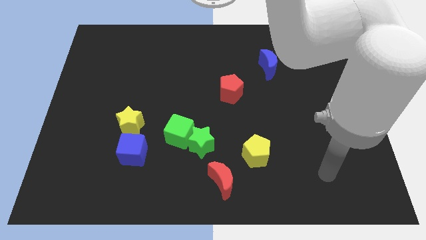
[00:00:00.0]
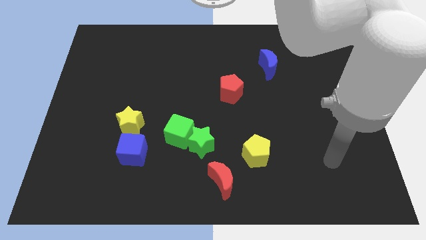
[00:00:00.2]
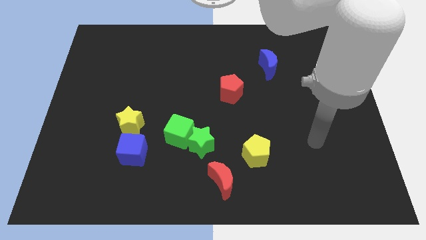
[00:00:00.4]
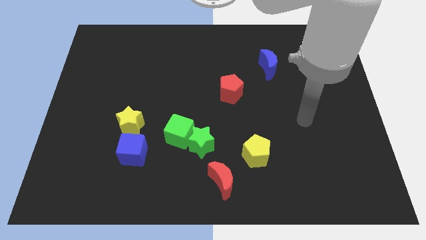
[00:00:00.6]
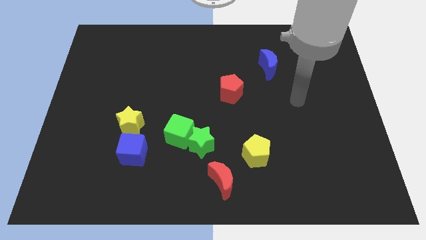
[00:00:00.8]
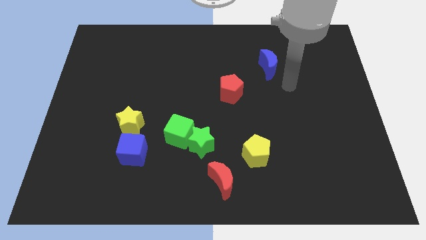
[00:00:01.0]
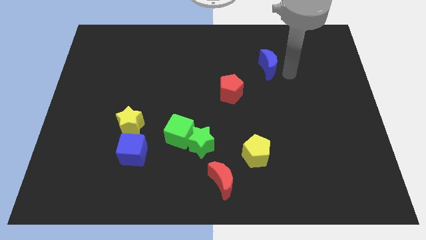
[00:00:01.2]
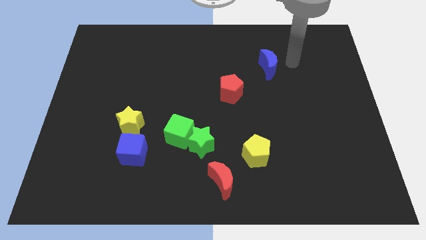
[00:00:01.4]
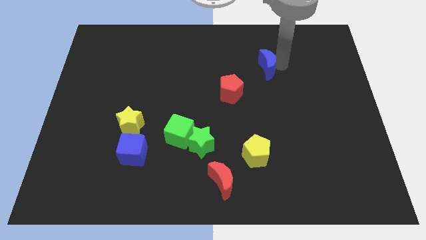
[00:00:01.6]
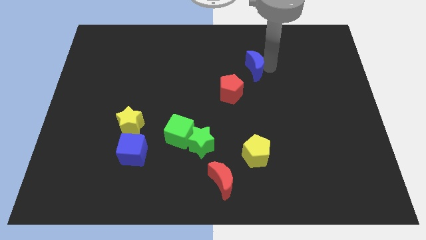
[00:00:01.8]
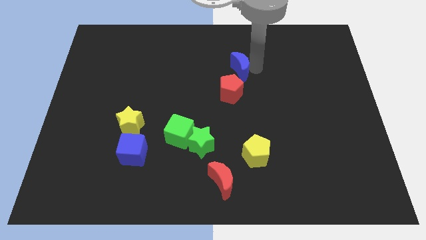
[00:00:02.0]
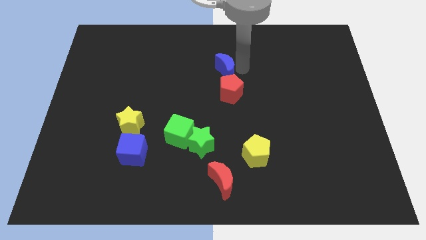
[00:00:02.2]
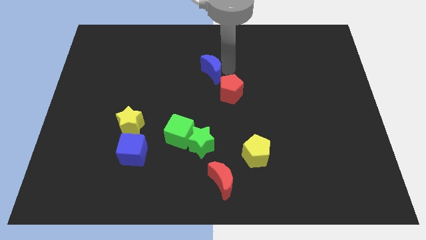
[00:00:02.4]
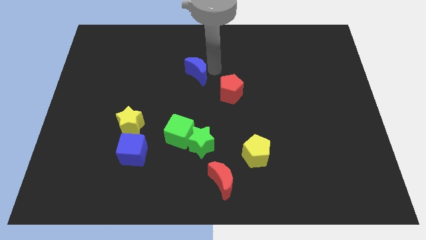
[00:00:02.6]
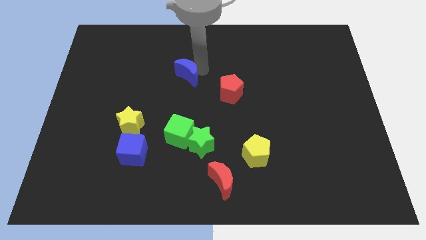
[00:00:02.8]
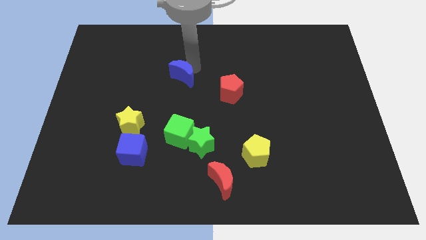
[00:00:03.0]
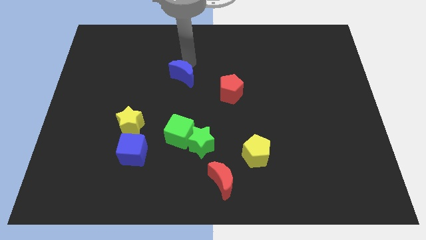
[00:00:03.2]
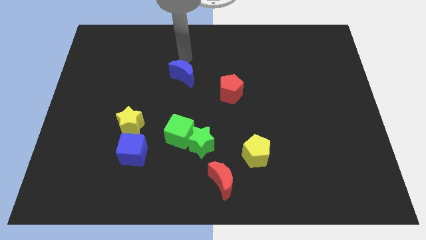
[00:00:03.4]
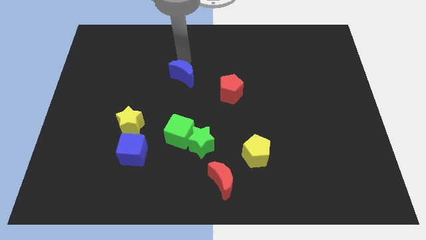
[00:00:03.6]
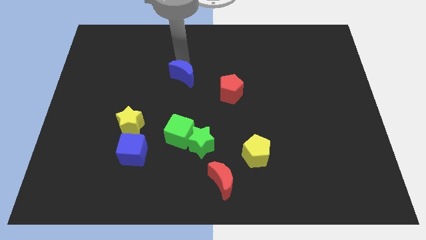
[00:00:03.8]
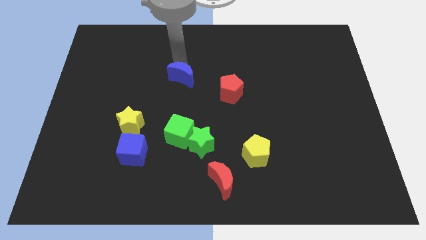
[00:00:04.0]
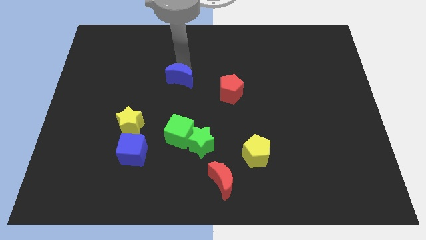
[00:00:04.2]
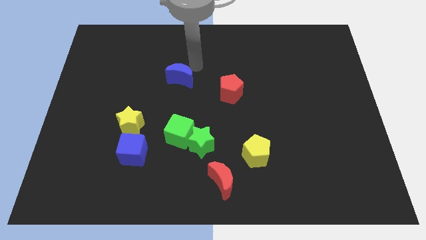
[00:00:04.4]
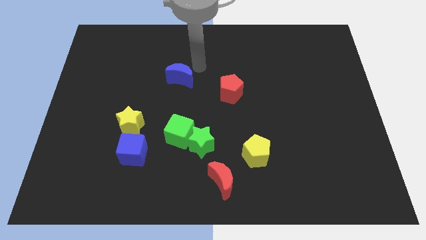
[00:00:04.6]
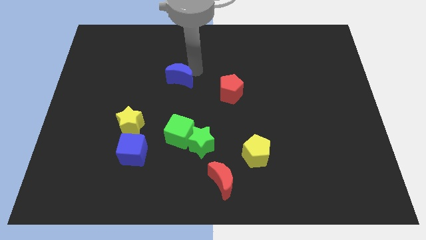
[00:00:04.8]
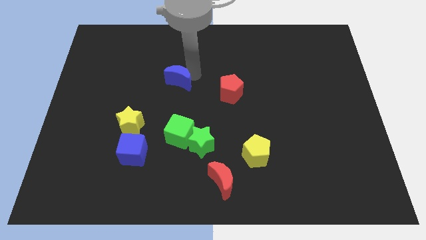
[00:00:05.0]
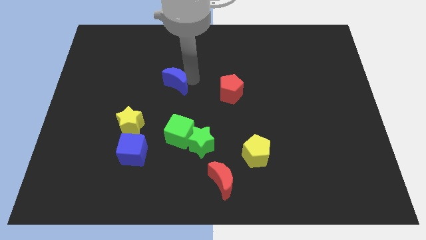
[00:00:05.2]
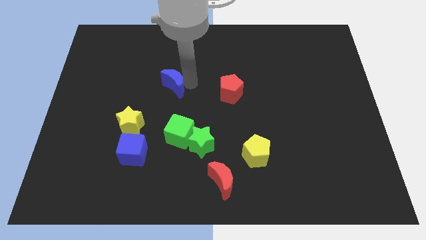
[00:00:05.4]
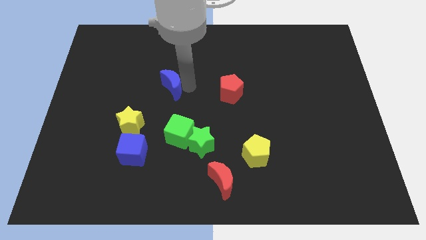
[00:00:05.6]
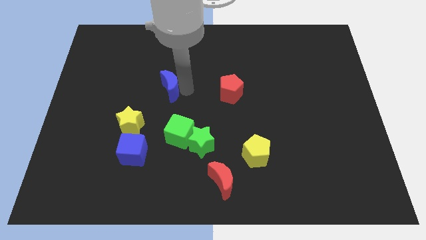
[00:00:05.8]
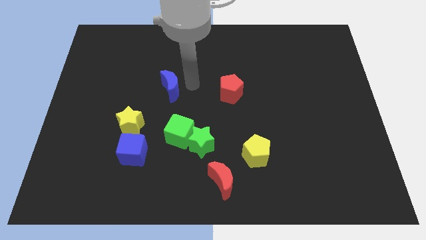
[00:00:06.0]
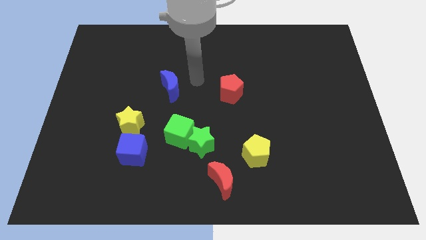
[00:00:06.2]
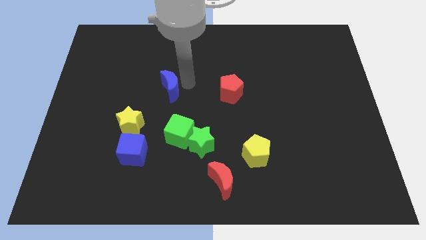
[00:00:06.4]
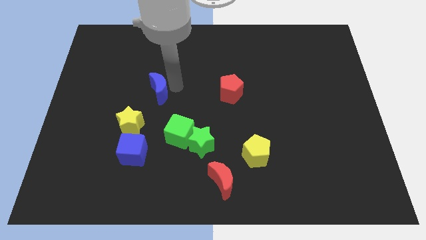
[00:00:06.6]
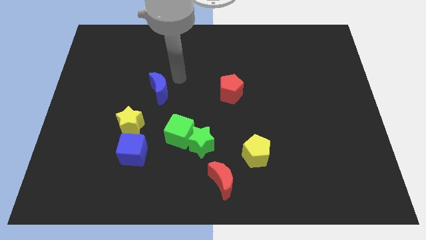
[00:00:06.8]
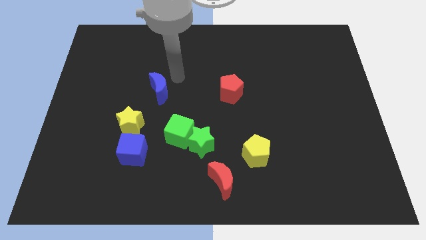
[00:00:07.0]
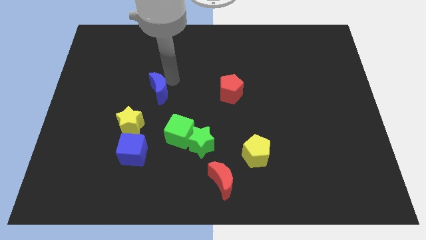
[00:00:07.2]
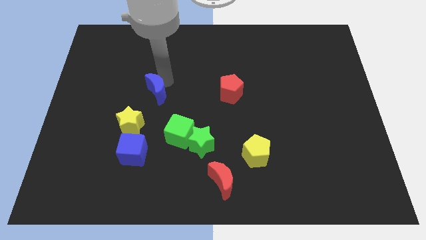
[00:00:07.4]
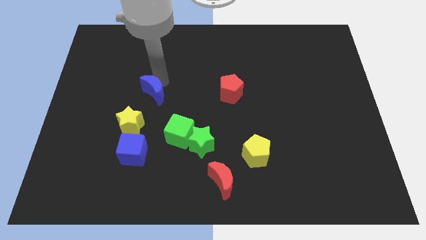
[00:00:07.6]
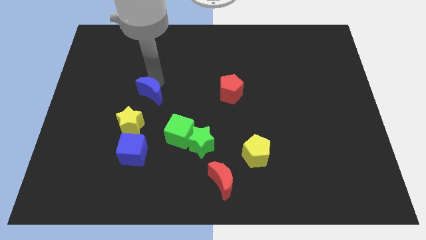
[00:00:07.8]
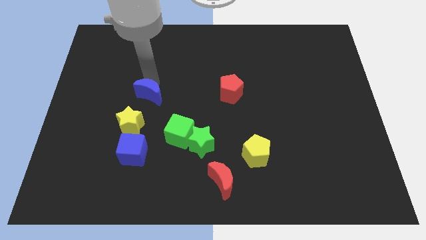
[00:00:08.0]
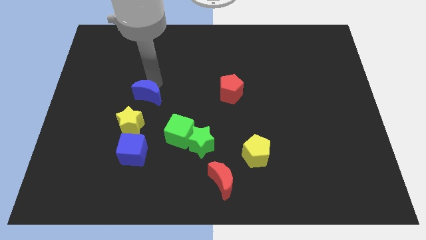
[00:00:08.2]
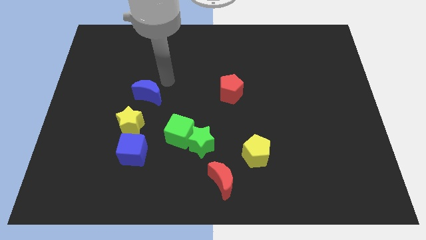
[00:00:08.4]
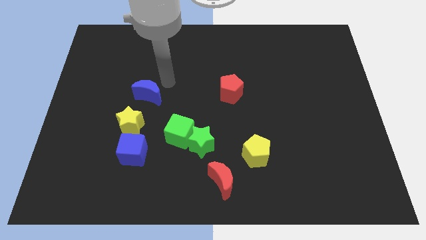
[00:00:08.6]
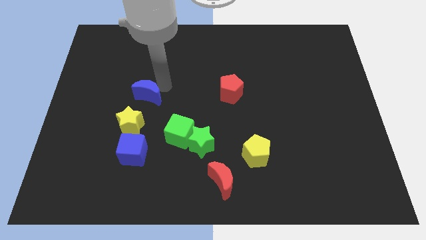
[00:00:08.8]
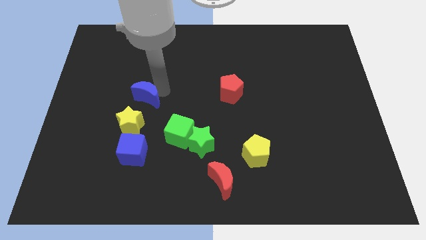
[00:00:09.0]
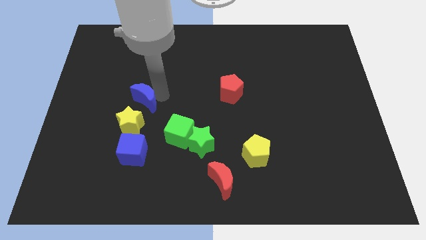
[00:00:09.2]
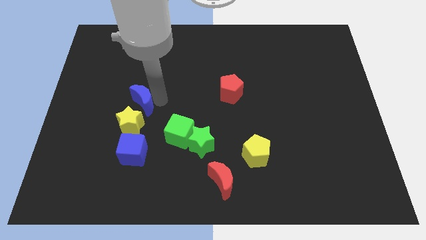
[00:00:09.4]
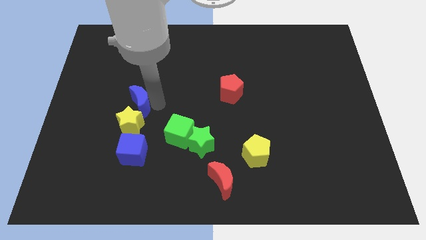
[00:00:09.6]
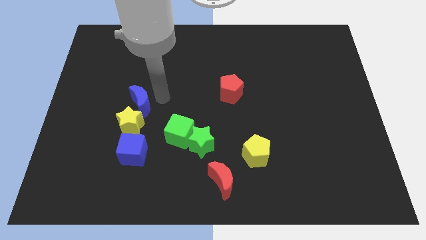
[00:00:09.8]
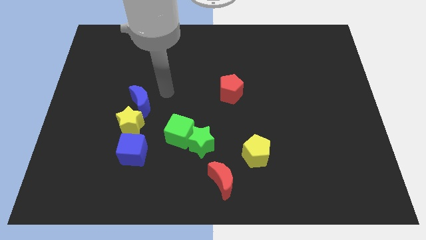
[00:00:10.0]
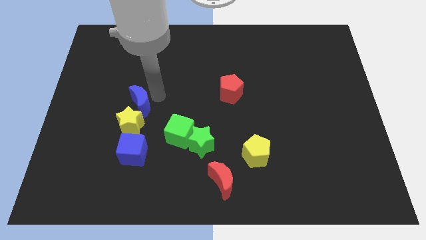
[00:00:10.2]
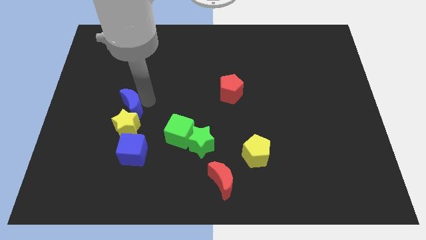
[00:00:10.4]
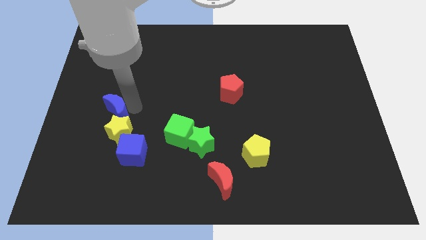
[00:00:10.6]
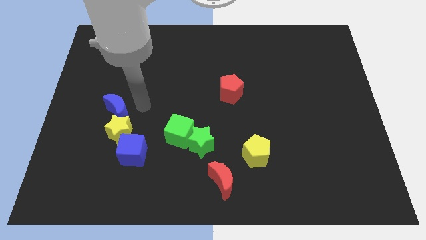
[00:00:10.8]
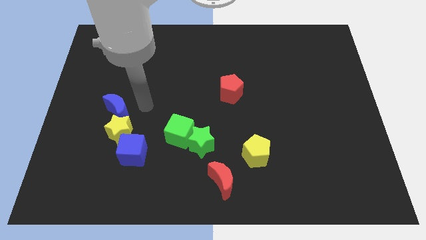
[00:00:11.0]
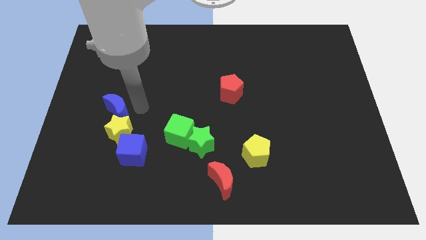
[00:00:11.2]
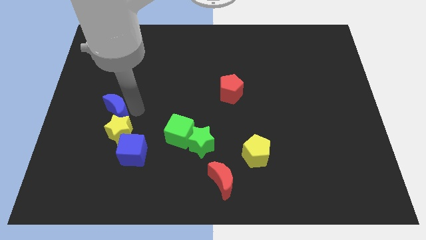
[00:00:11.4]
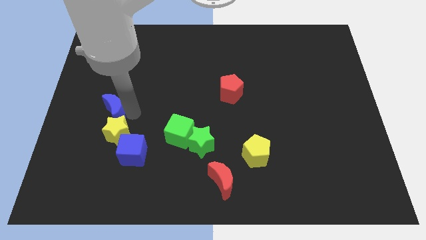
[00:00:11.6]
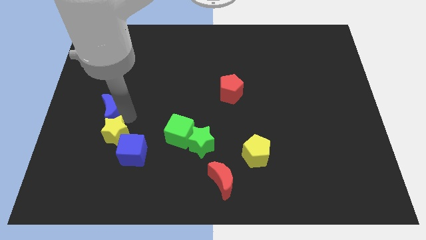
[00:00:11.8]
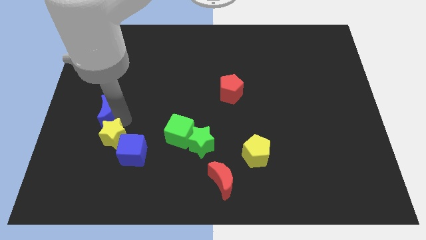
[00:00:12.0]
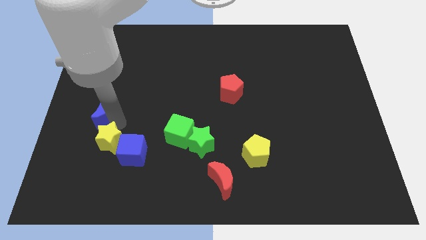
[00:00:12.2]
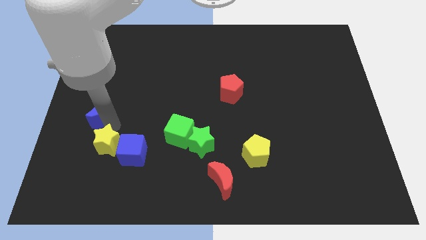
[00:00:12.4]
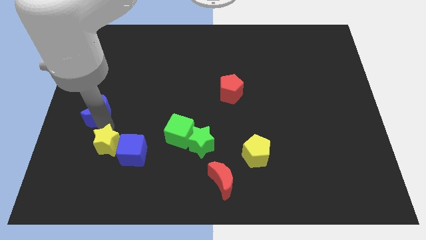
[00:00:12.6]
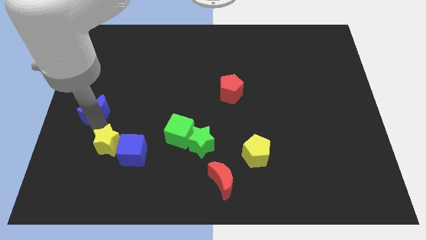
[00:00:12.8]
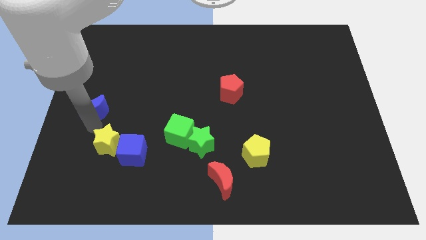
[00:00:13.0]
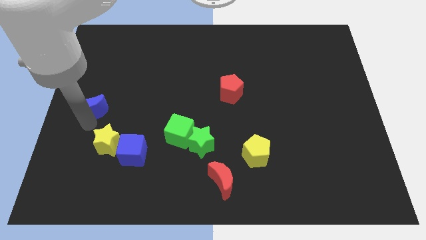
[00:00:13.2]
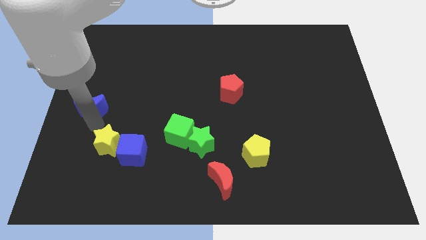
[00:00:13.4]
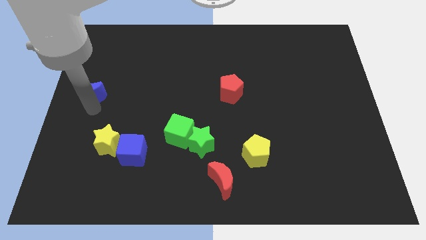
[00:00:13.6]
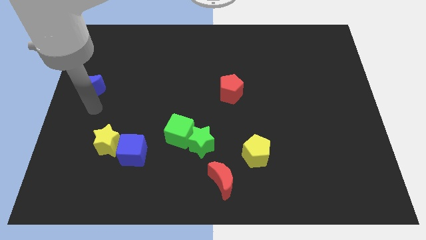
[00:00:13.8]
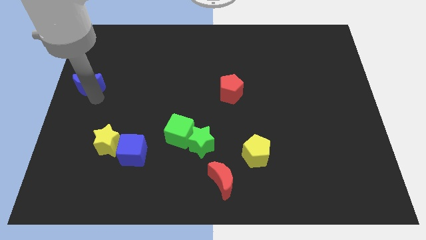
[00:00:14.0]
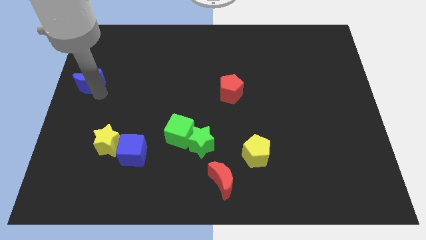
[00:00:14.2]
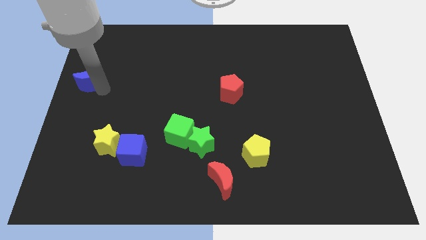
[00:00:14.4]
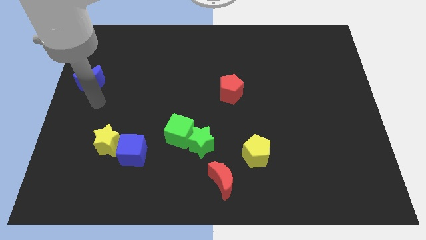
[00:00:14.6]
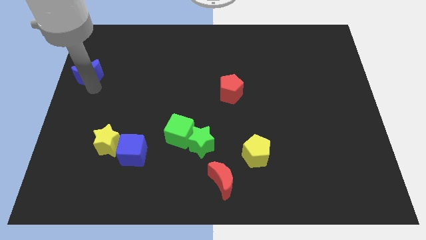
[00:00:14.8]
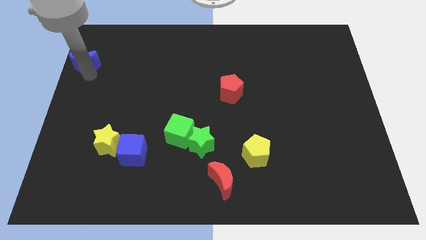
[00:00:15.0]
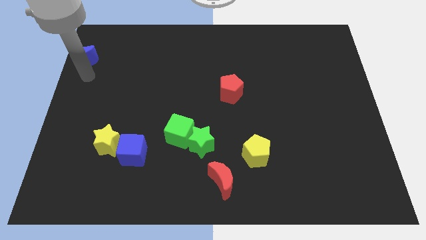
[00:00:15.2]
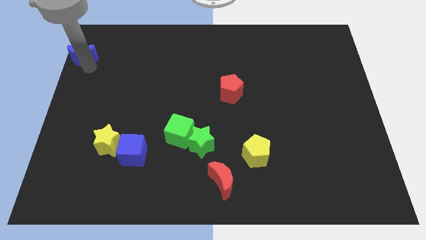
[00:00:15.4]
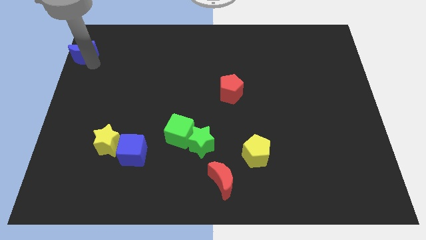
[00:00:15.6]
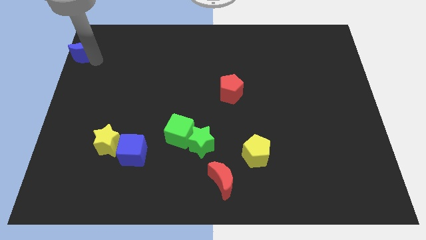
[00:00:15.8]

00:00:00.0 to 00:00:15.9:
put the blue moon to the top left corner
